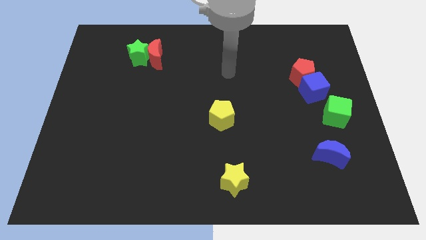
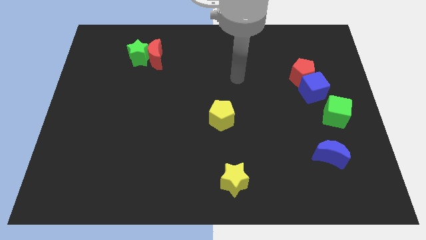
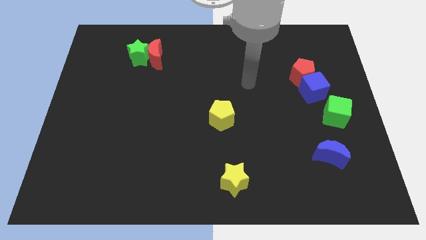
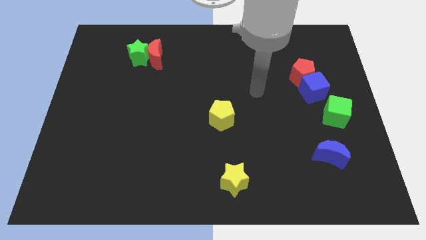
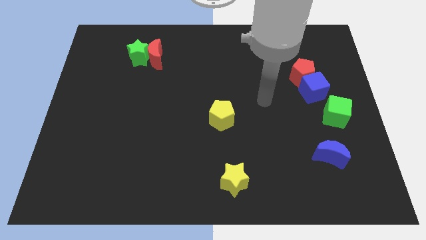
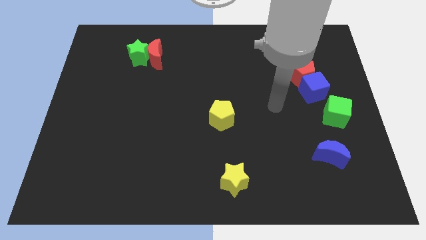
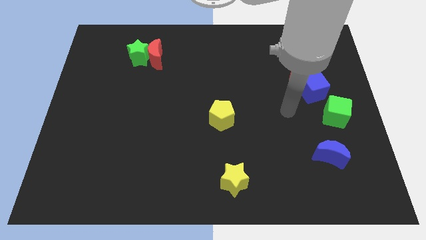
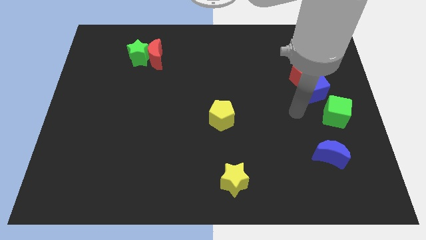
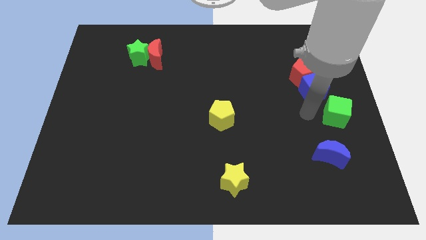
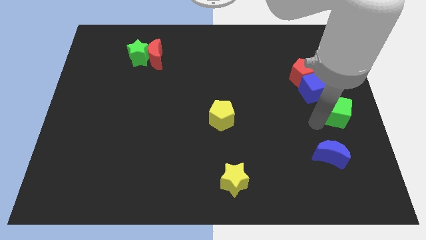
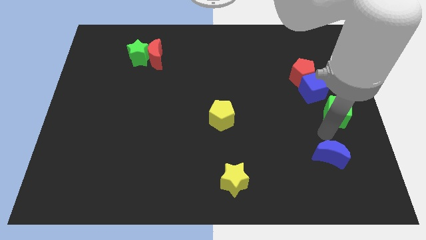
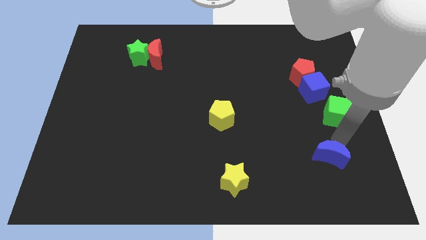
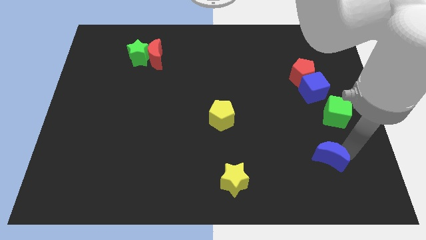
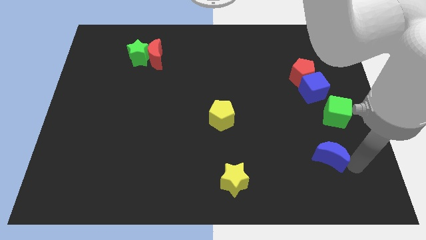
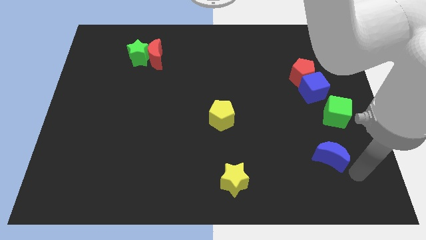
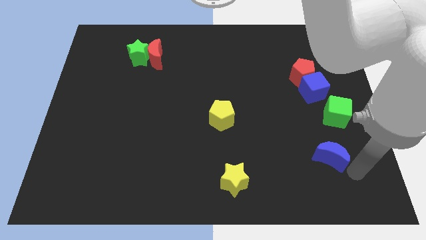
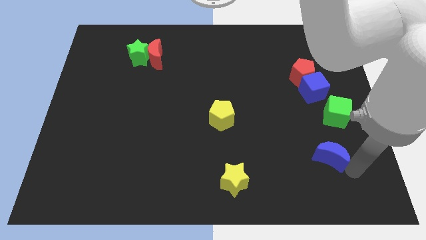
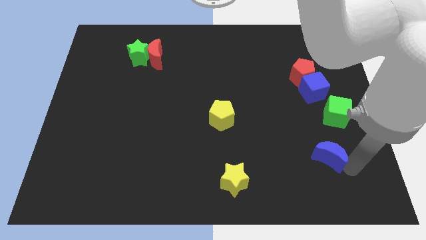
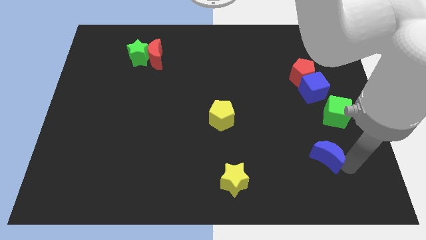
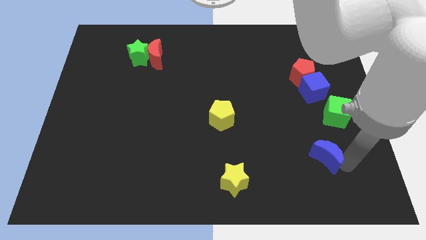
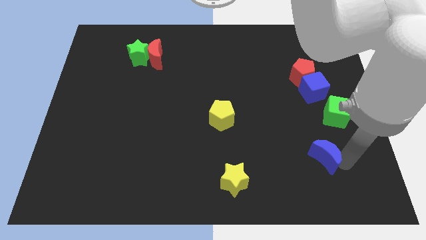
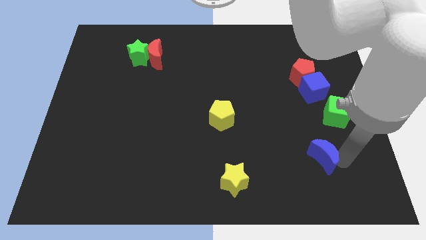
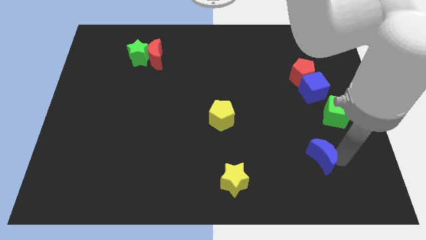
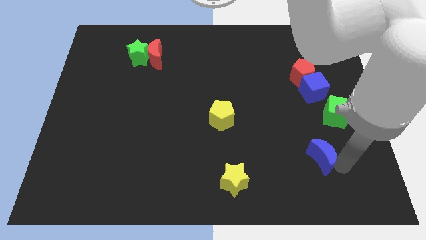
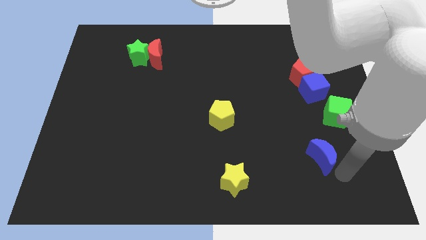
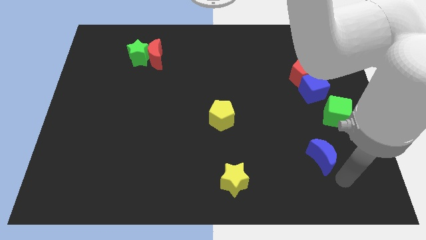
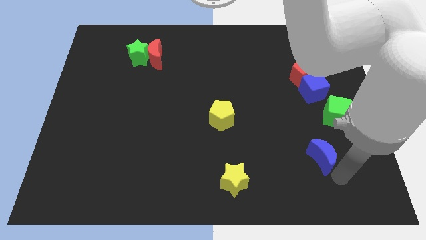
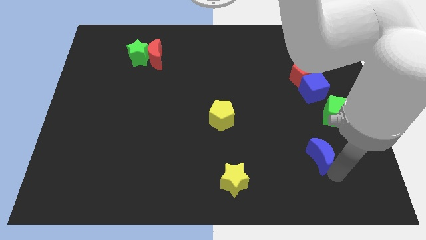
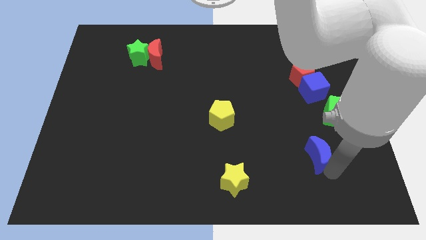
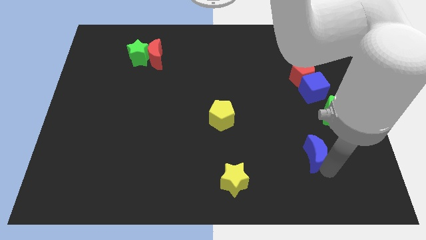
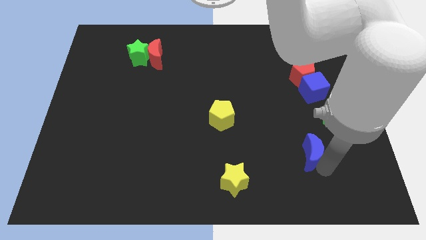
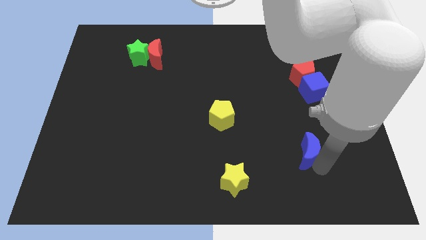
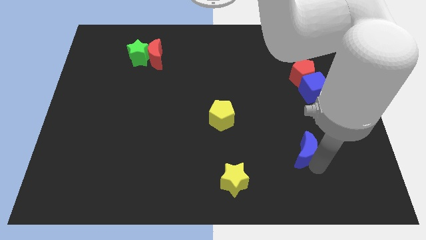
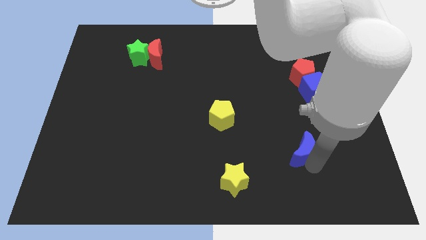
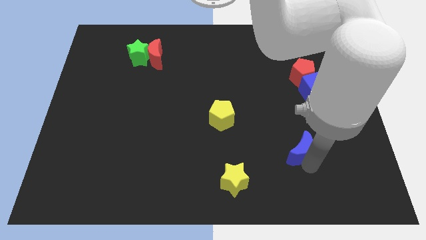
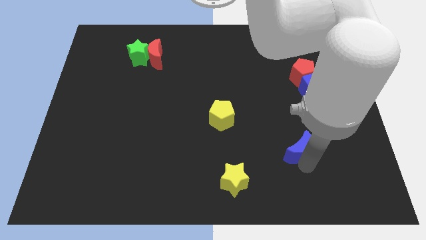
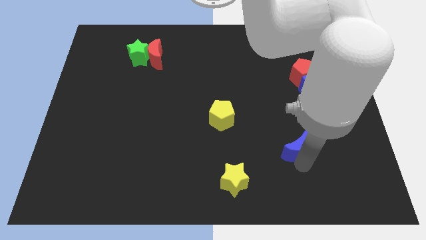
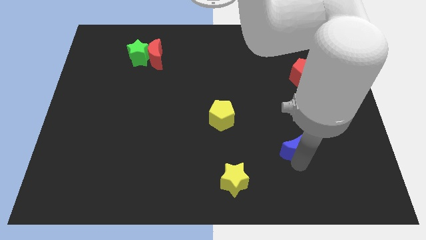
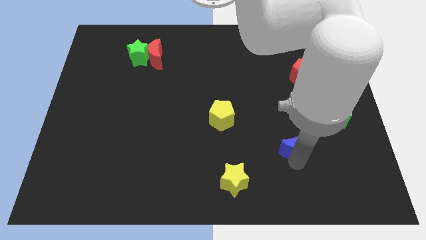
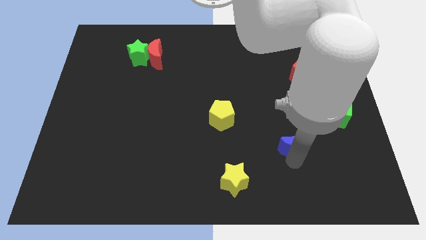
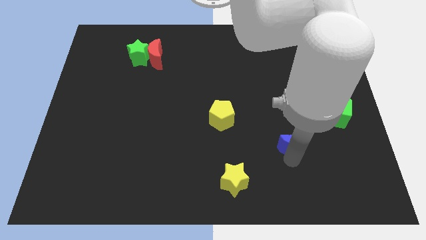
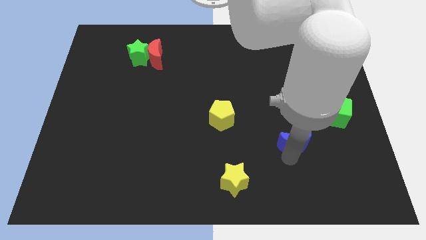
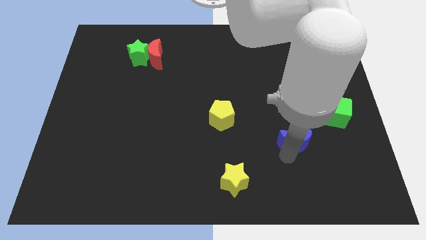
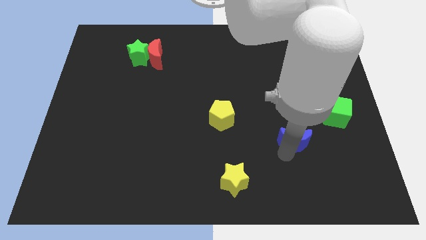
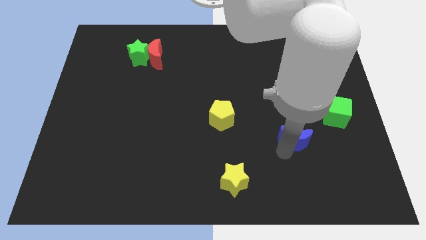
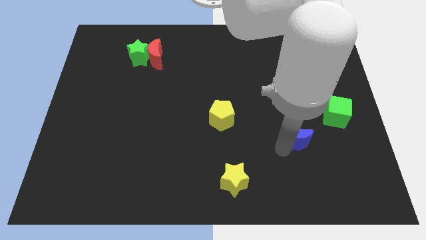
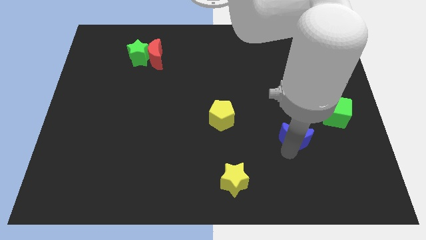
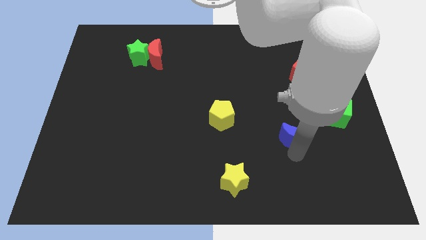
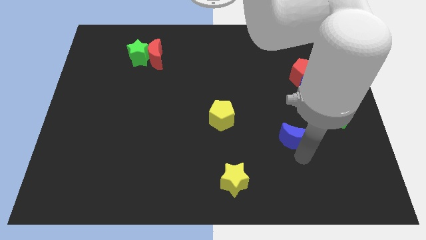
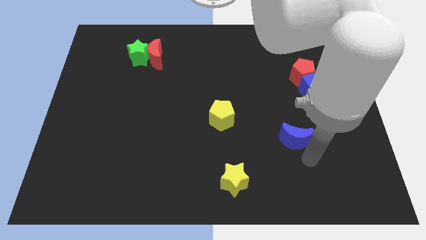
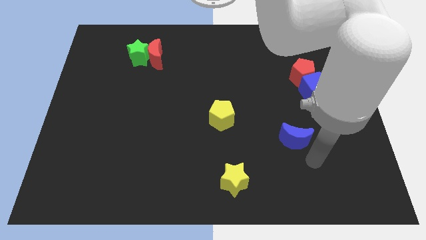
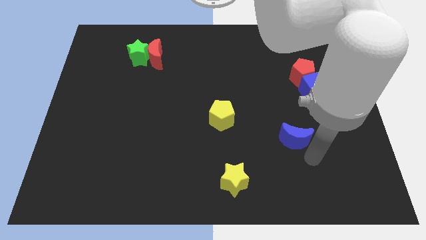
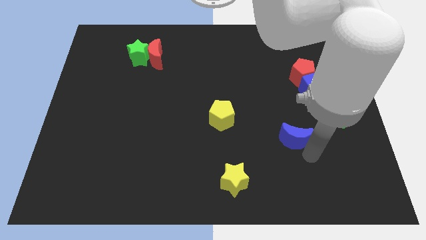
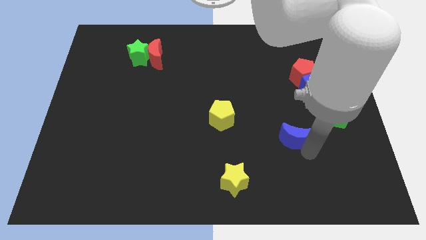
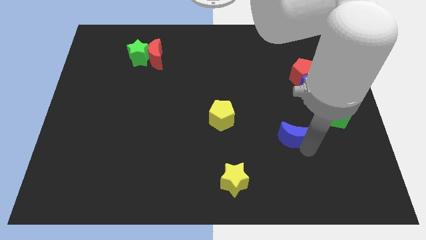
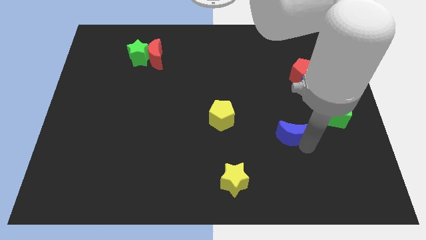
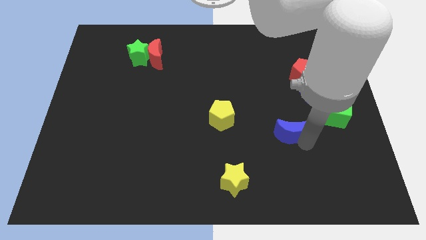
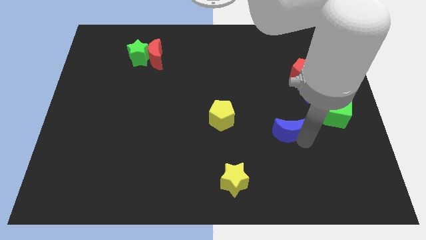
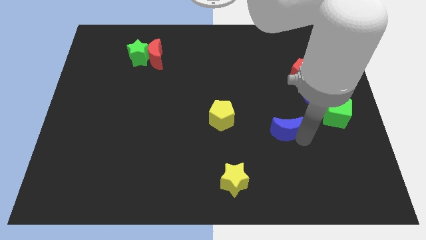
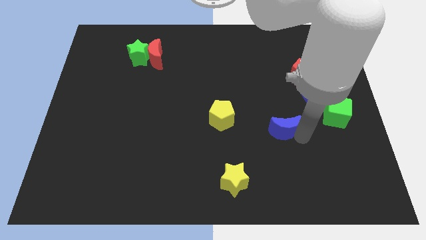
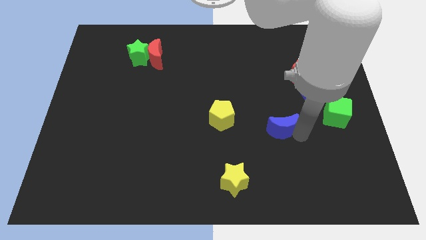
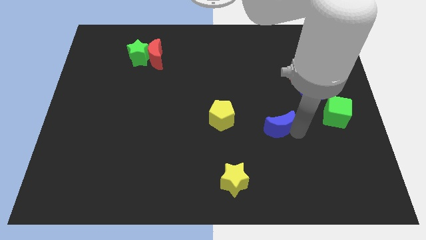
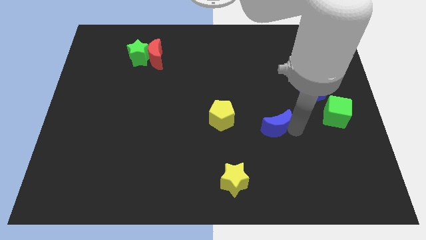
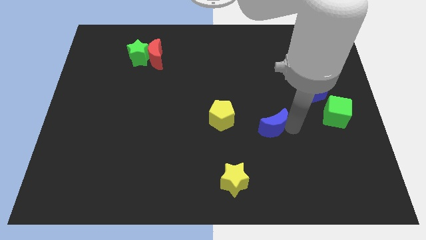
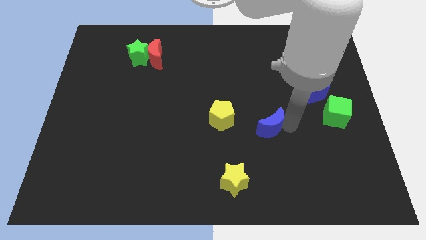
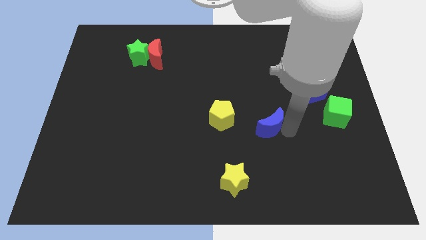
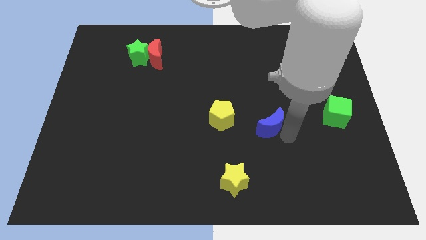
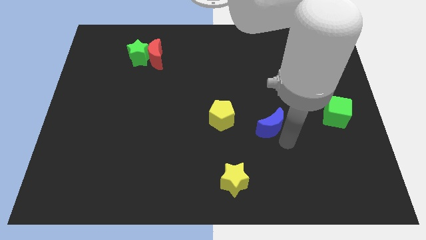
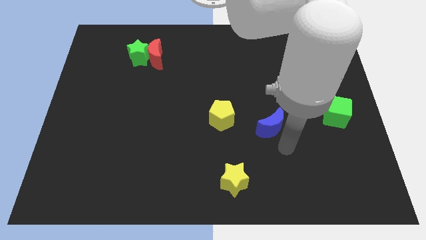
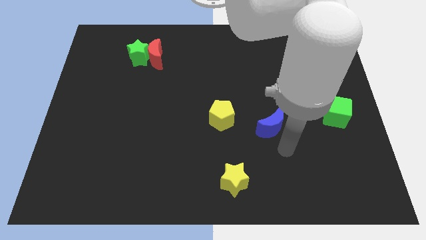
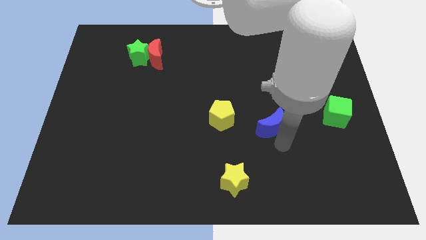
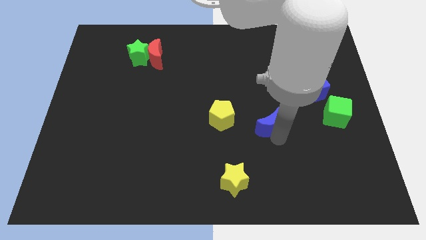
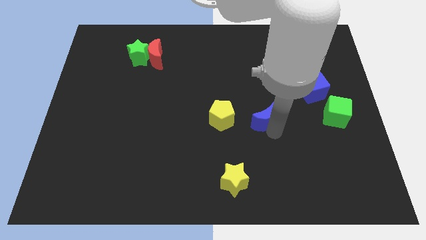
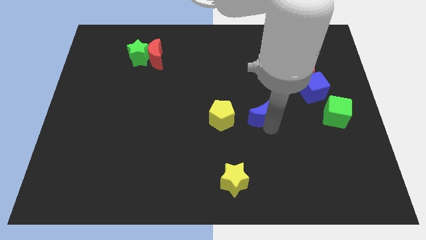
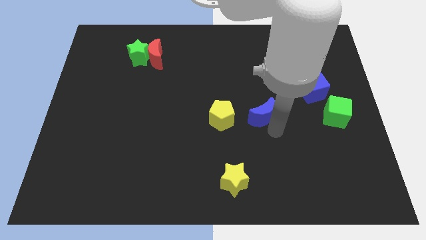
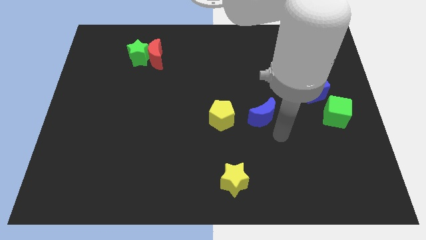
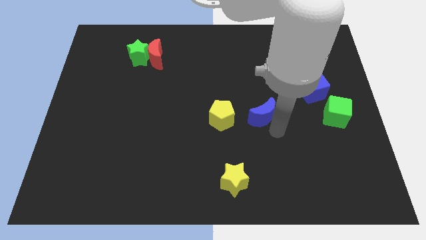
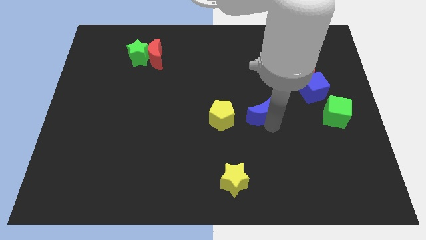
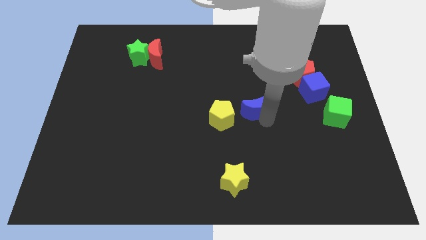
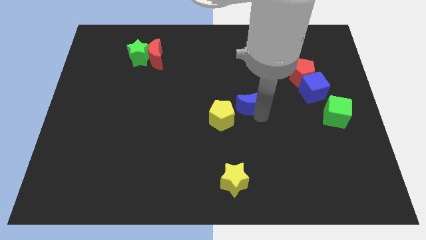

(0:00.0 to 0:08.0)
move the blue moon upwards and left

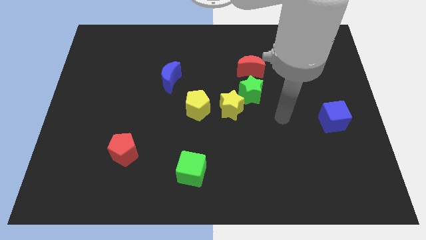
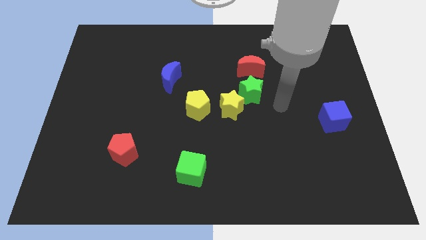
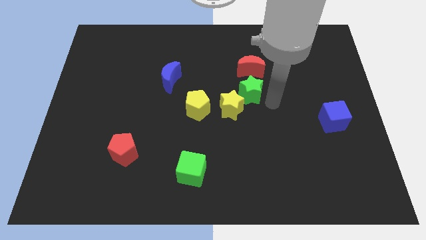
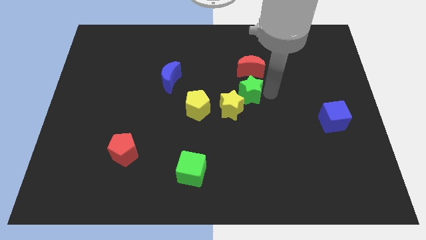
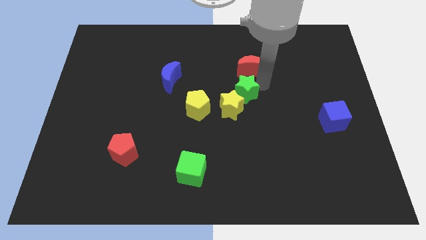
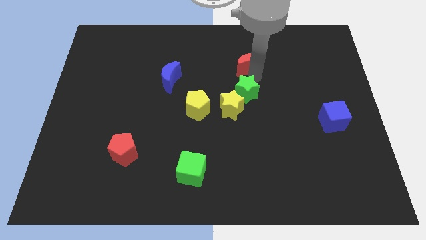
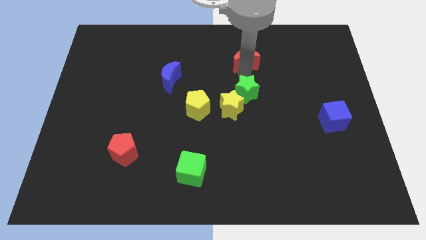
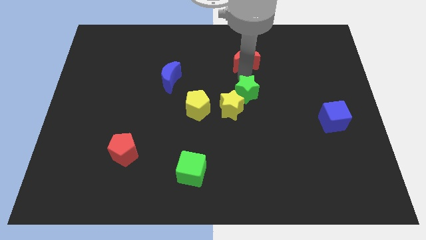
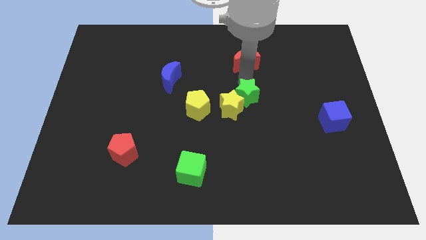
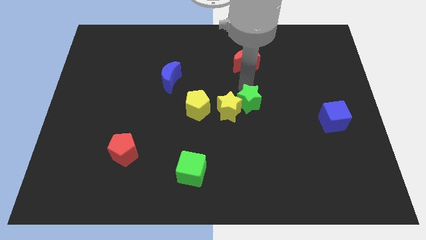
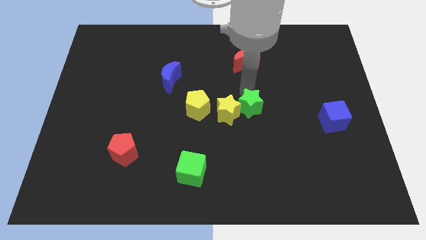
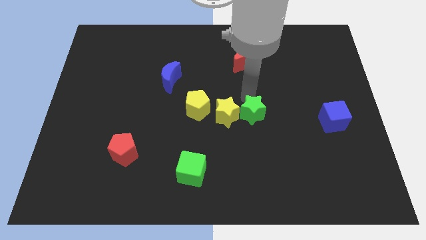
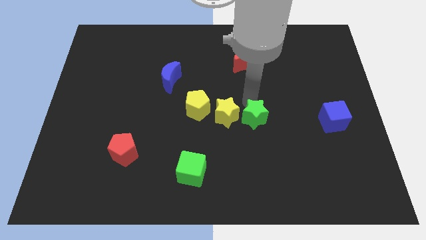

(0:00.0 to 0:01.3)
push the green star downwards a little
